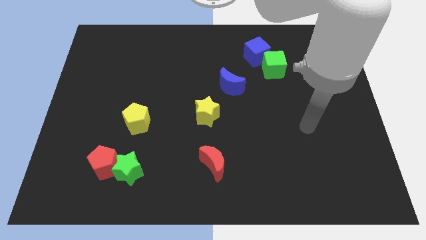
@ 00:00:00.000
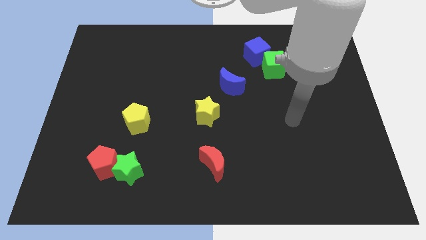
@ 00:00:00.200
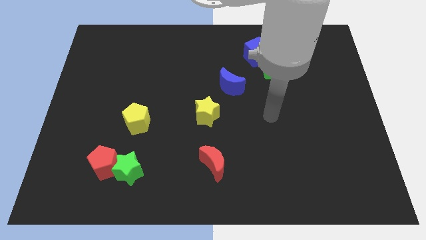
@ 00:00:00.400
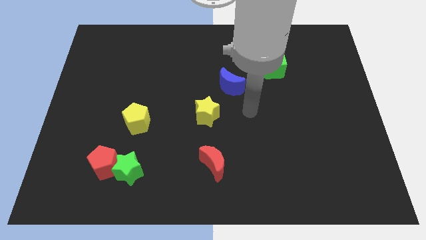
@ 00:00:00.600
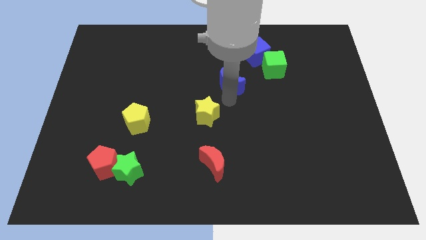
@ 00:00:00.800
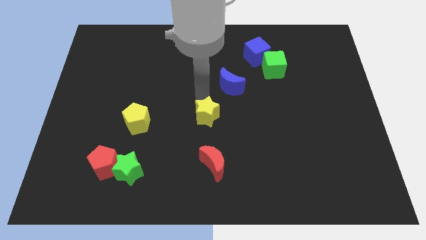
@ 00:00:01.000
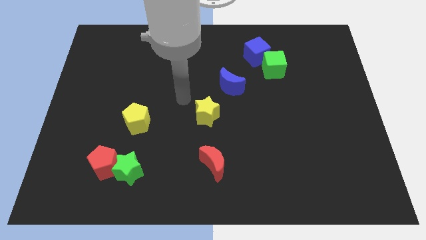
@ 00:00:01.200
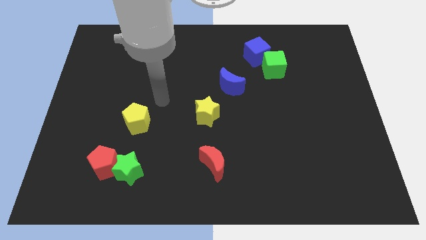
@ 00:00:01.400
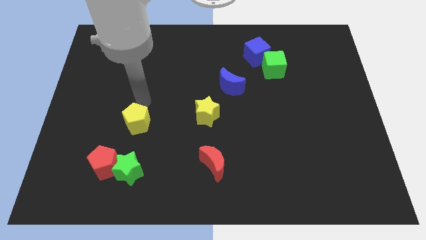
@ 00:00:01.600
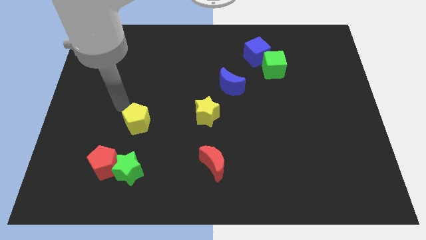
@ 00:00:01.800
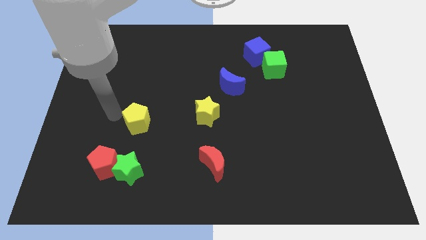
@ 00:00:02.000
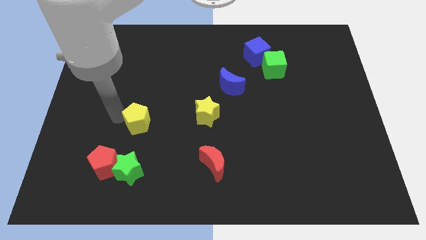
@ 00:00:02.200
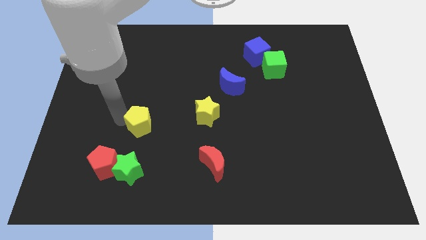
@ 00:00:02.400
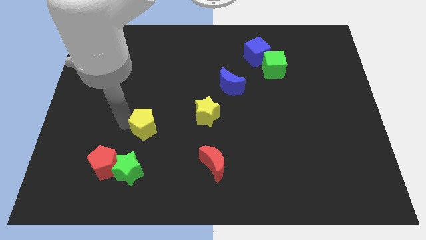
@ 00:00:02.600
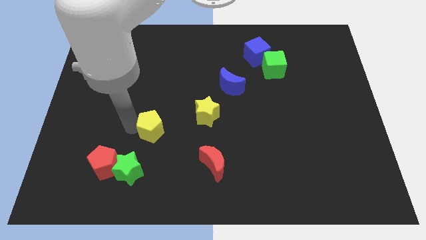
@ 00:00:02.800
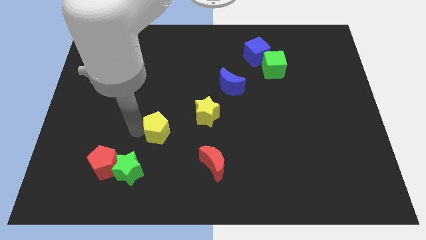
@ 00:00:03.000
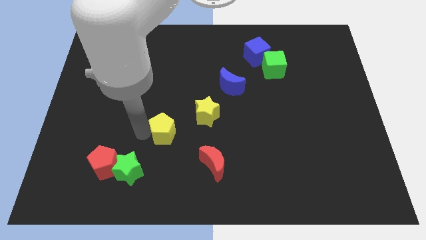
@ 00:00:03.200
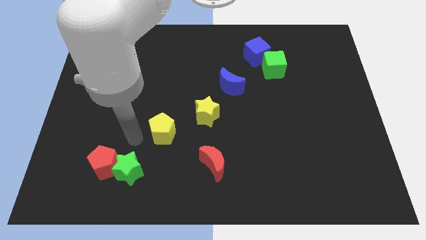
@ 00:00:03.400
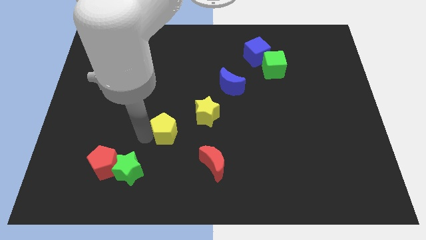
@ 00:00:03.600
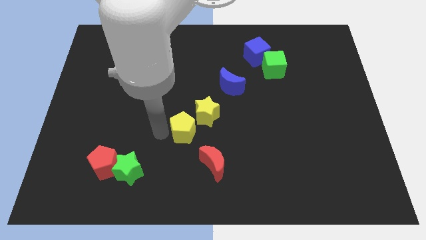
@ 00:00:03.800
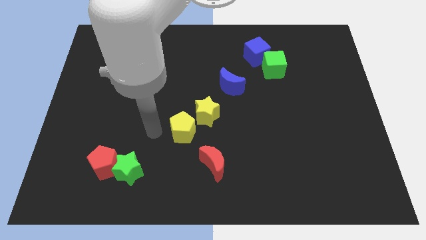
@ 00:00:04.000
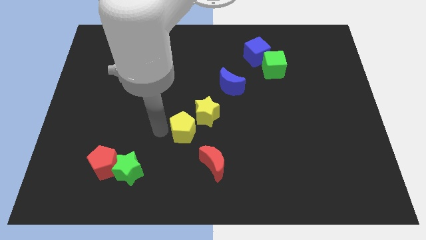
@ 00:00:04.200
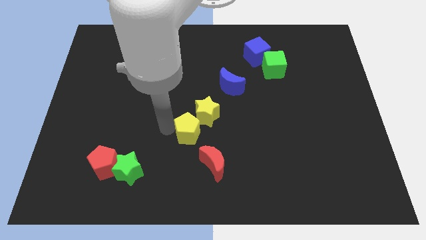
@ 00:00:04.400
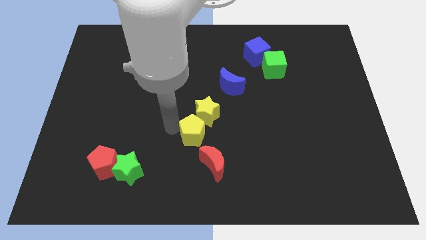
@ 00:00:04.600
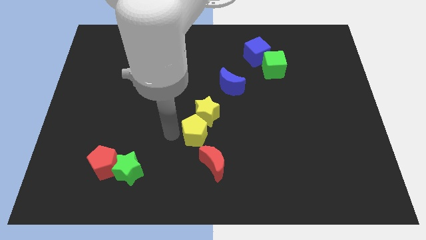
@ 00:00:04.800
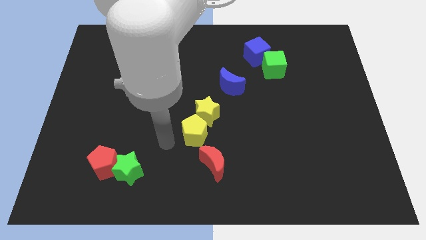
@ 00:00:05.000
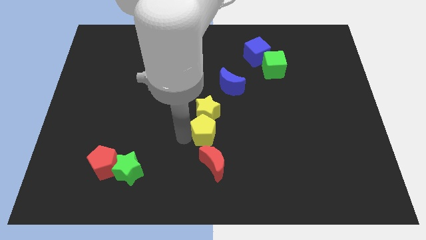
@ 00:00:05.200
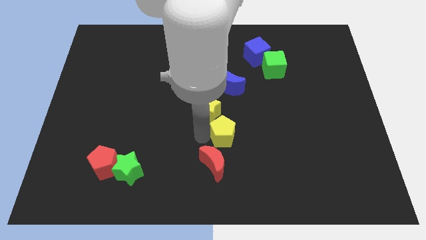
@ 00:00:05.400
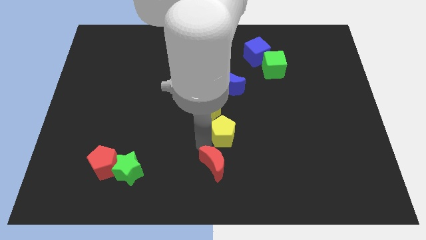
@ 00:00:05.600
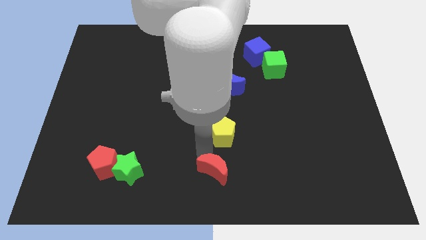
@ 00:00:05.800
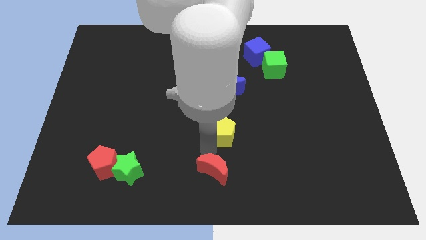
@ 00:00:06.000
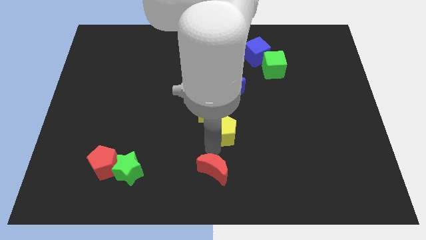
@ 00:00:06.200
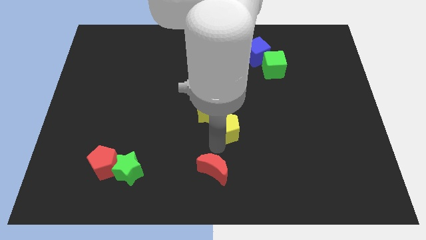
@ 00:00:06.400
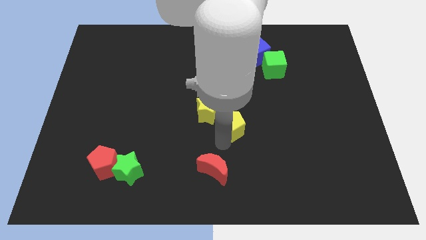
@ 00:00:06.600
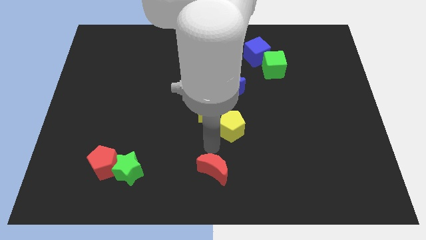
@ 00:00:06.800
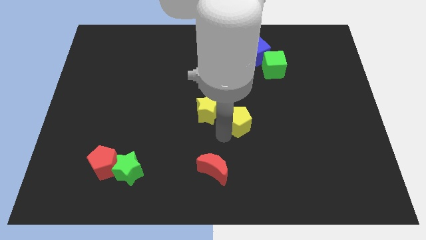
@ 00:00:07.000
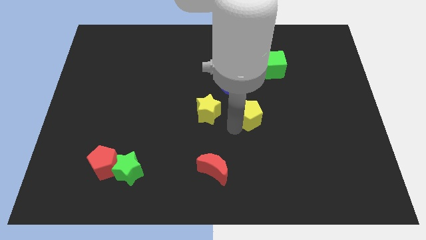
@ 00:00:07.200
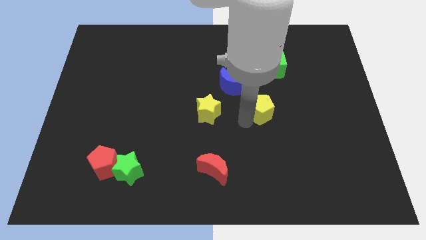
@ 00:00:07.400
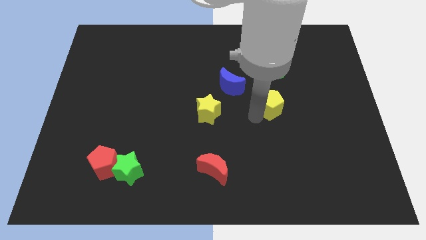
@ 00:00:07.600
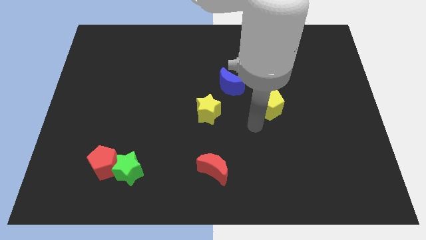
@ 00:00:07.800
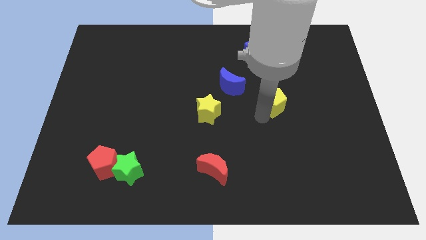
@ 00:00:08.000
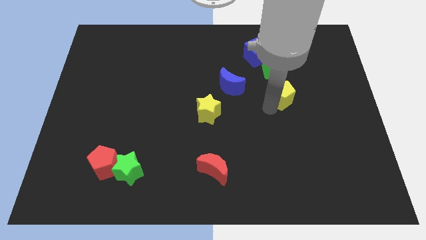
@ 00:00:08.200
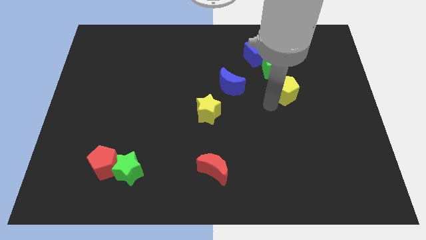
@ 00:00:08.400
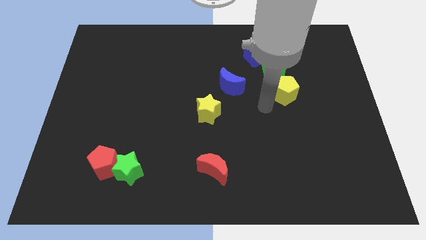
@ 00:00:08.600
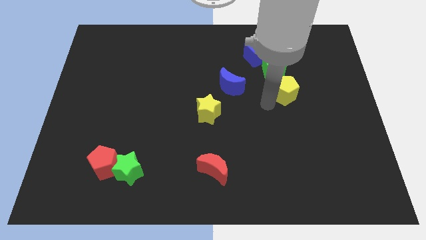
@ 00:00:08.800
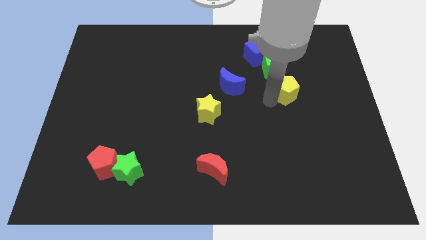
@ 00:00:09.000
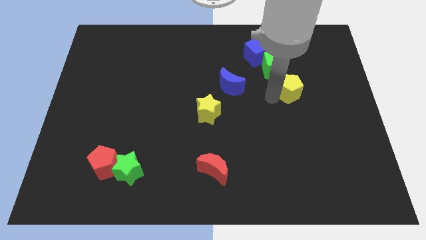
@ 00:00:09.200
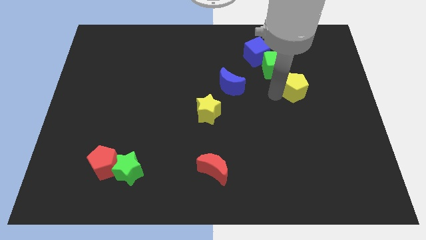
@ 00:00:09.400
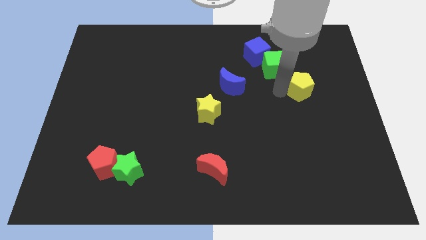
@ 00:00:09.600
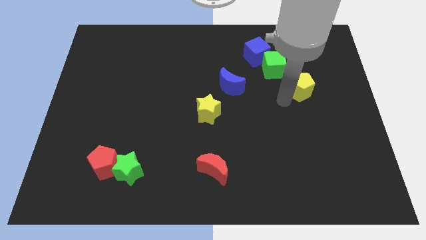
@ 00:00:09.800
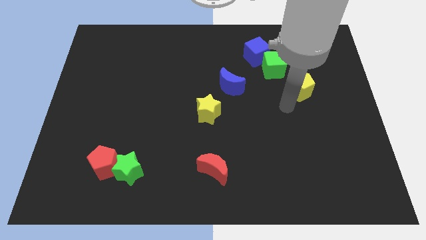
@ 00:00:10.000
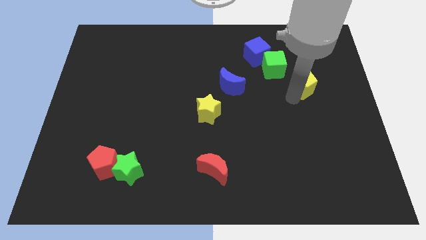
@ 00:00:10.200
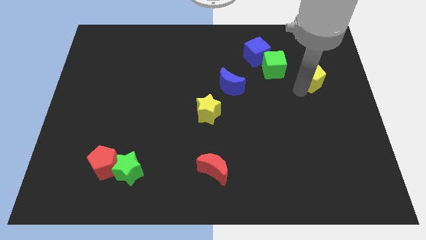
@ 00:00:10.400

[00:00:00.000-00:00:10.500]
slide the yellow pentagon to the right side of the green cube

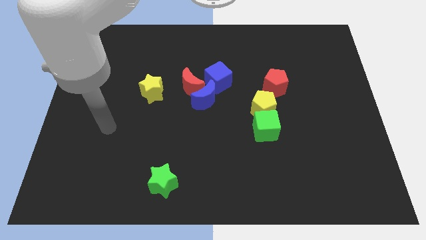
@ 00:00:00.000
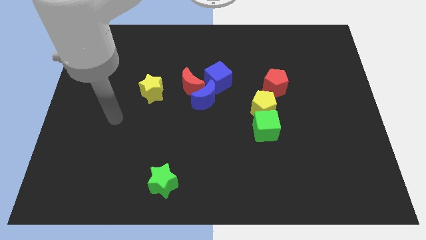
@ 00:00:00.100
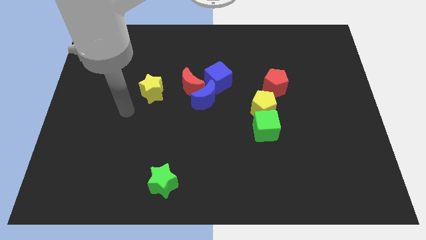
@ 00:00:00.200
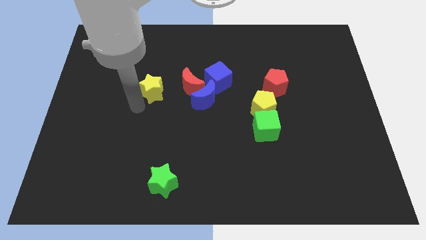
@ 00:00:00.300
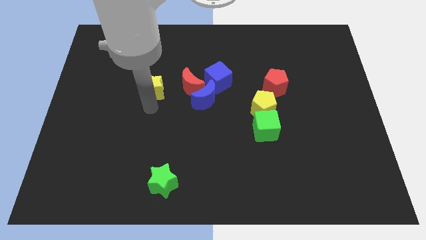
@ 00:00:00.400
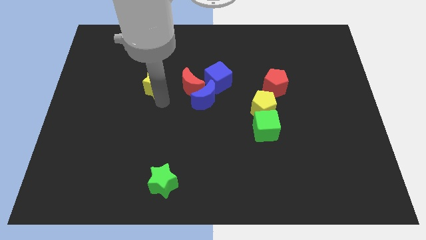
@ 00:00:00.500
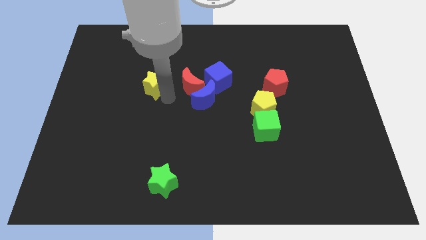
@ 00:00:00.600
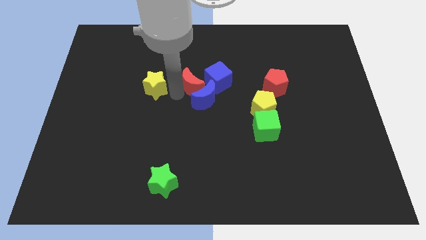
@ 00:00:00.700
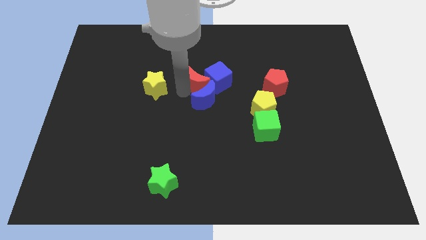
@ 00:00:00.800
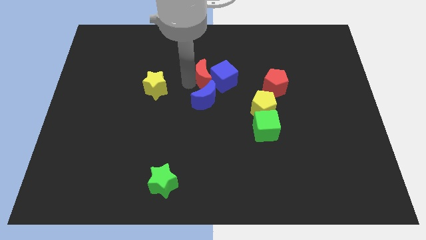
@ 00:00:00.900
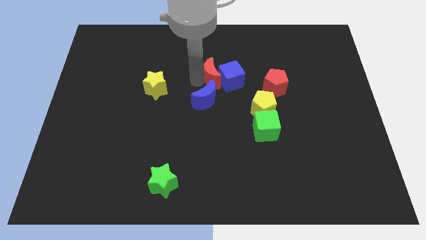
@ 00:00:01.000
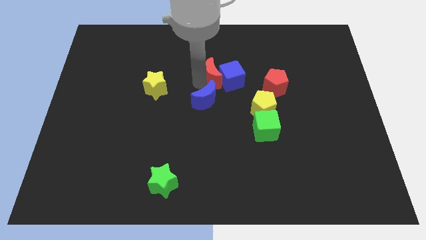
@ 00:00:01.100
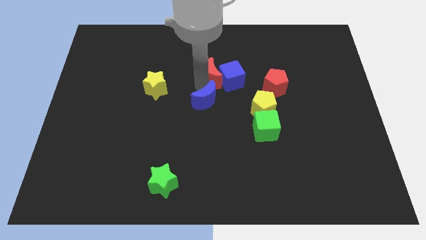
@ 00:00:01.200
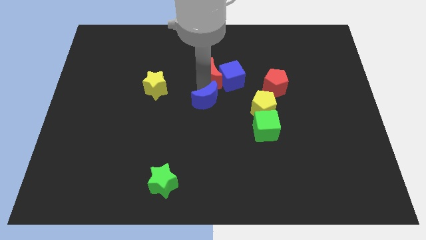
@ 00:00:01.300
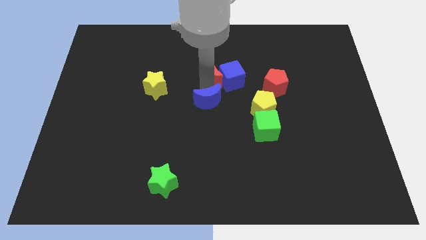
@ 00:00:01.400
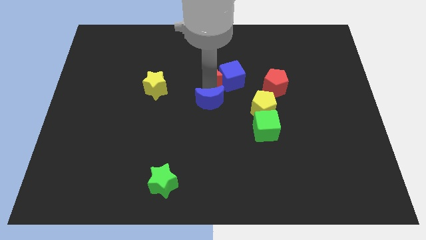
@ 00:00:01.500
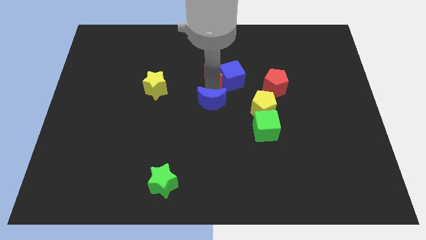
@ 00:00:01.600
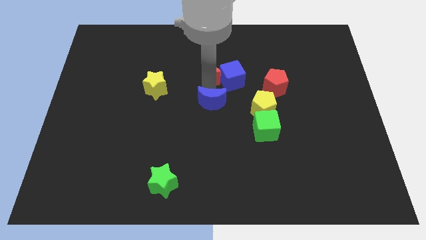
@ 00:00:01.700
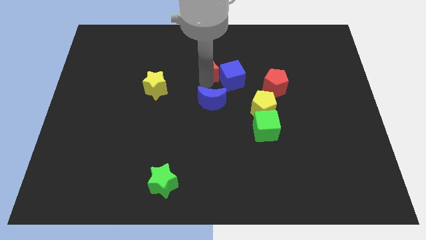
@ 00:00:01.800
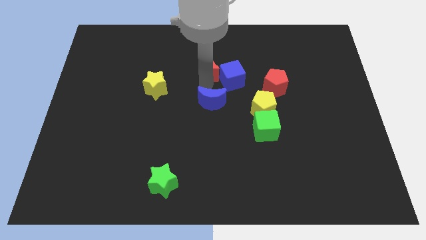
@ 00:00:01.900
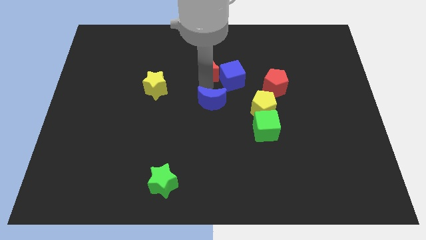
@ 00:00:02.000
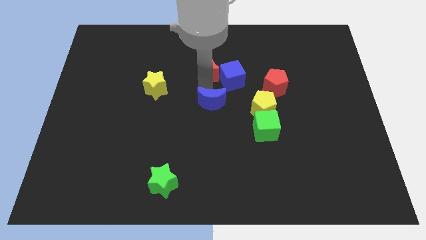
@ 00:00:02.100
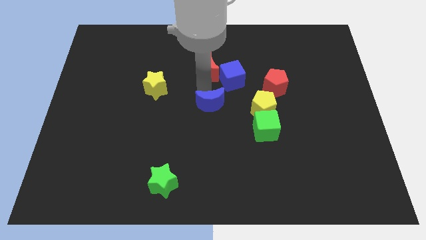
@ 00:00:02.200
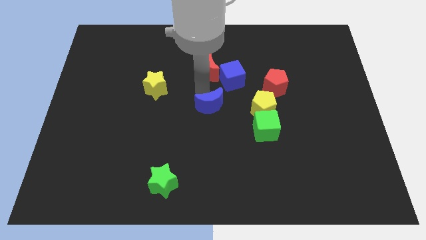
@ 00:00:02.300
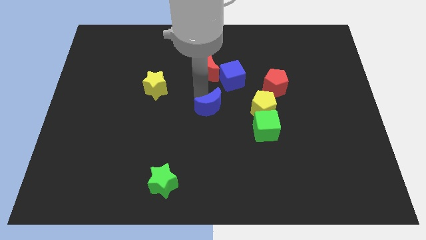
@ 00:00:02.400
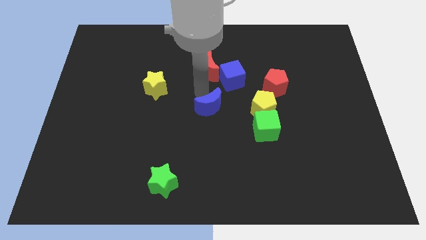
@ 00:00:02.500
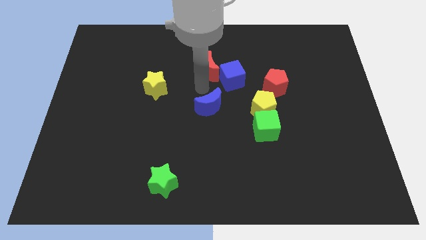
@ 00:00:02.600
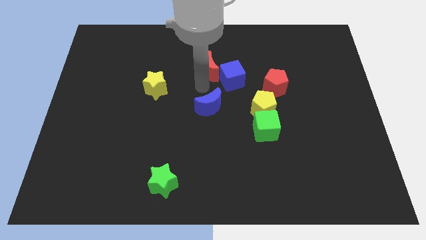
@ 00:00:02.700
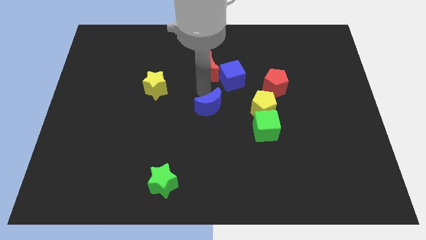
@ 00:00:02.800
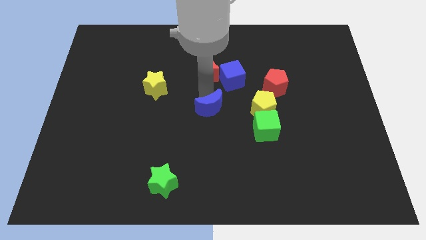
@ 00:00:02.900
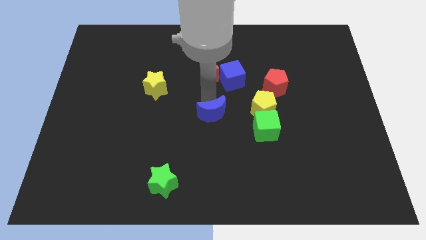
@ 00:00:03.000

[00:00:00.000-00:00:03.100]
put the blue moon to the left side of the green cube
